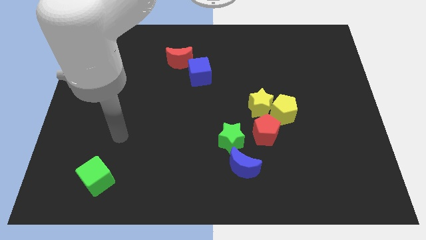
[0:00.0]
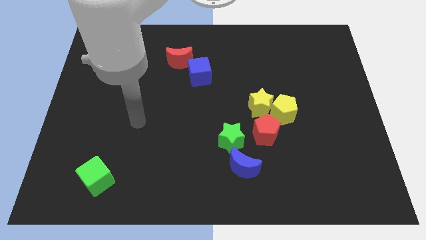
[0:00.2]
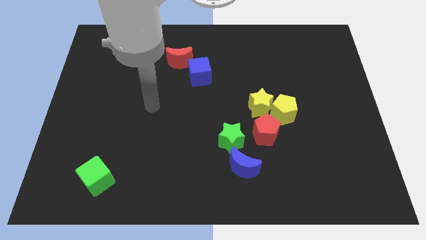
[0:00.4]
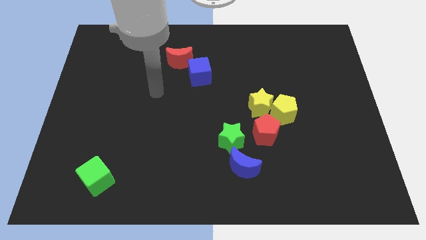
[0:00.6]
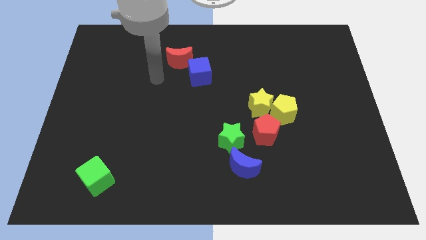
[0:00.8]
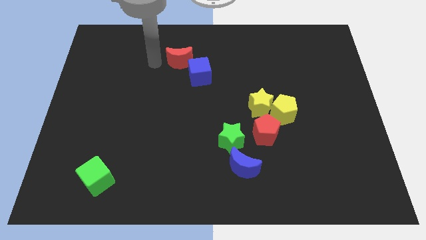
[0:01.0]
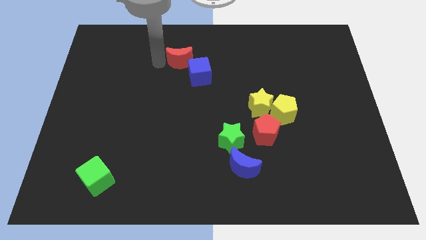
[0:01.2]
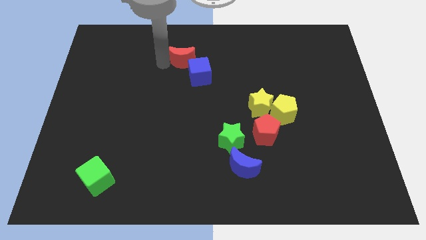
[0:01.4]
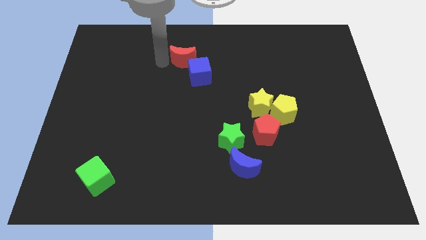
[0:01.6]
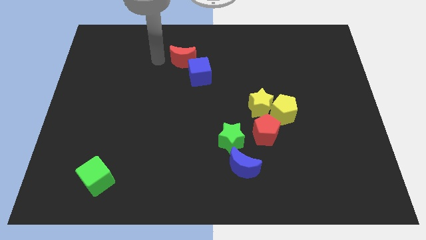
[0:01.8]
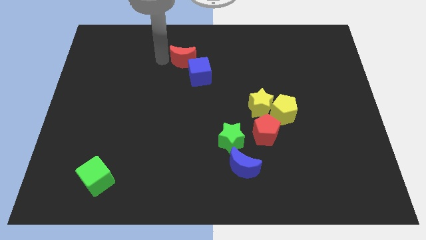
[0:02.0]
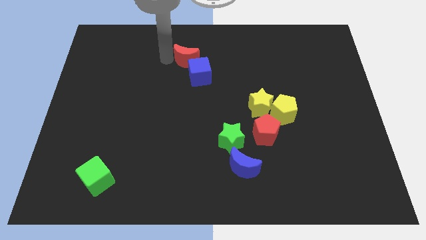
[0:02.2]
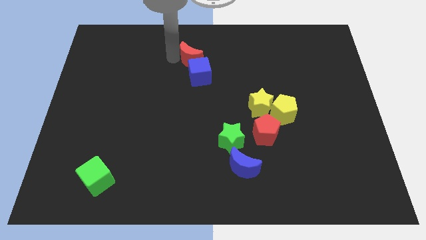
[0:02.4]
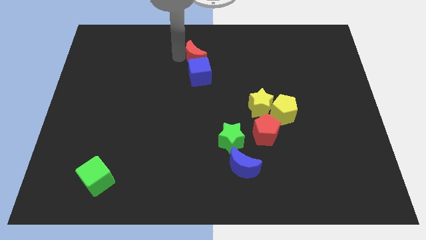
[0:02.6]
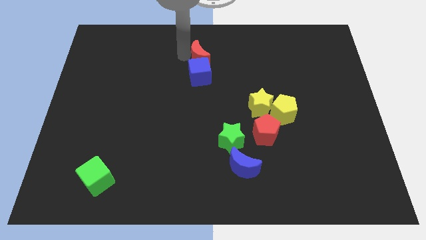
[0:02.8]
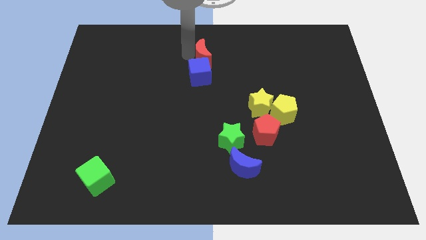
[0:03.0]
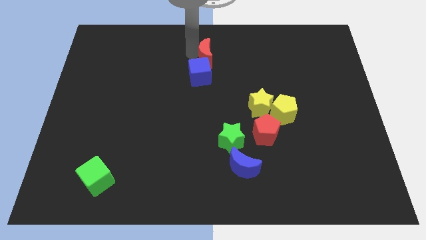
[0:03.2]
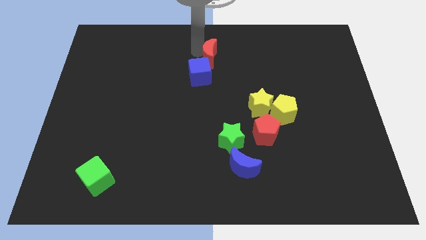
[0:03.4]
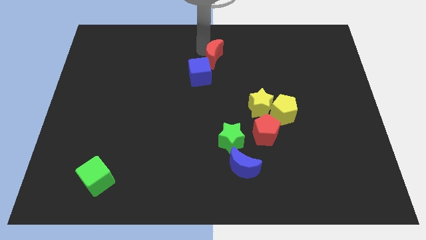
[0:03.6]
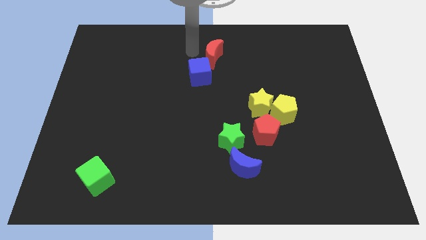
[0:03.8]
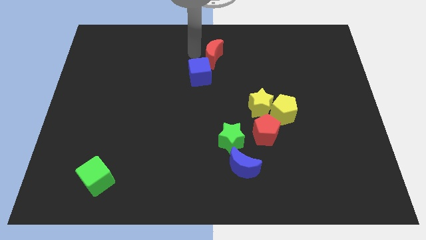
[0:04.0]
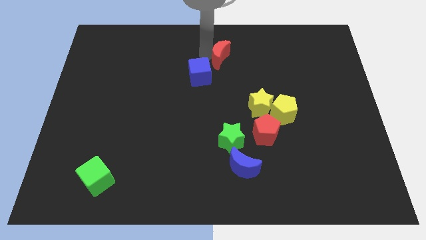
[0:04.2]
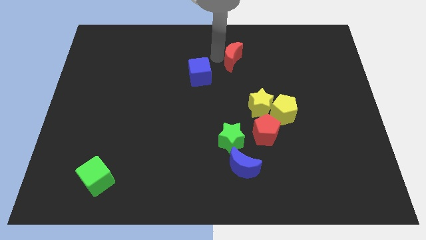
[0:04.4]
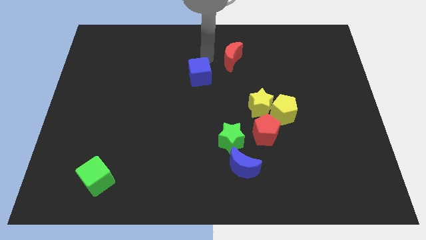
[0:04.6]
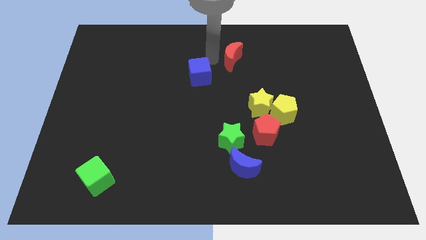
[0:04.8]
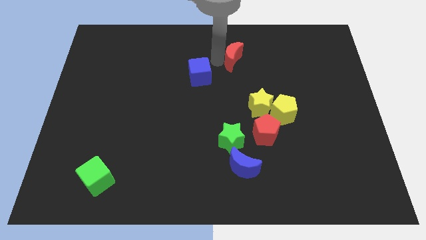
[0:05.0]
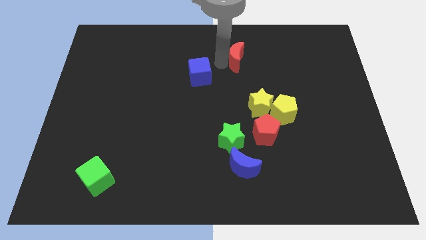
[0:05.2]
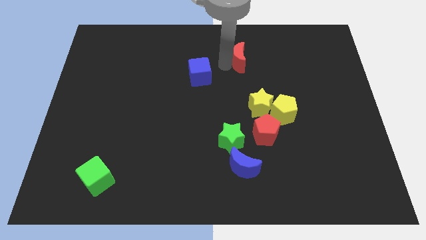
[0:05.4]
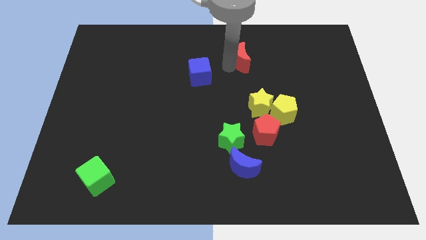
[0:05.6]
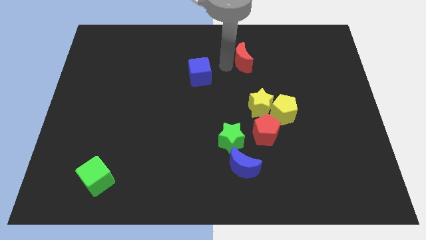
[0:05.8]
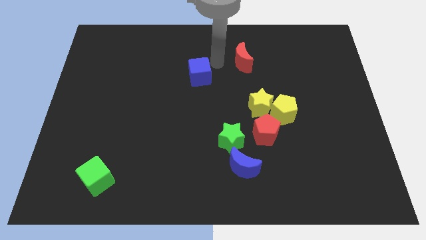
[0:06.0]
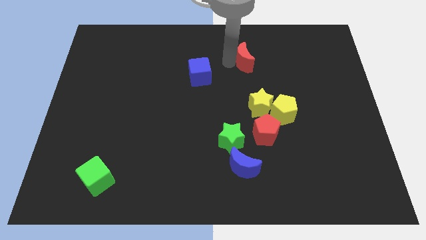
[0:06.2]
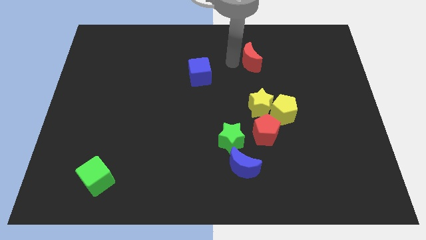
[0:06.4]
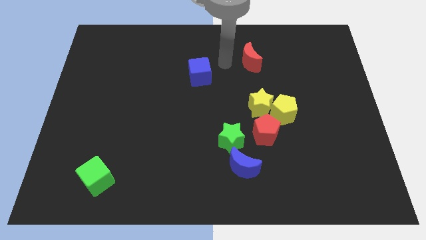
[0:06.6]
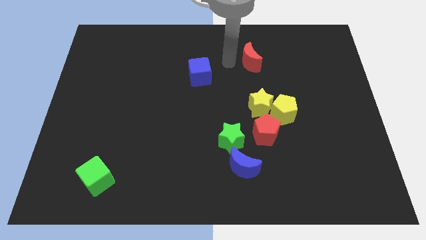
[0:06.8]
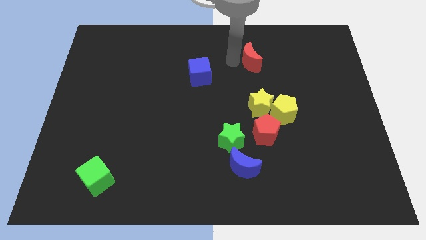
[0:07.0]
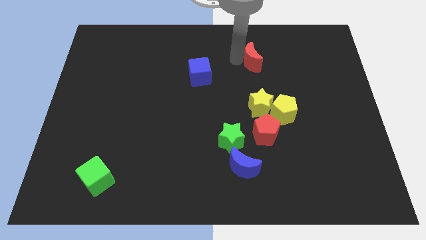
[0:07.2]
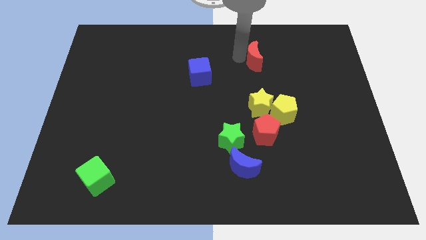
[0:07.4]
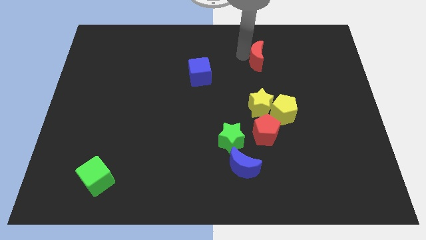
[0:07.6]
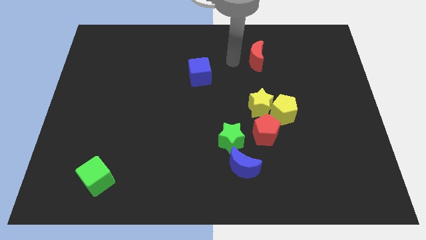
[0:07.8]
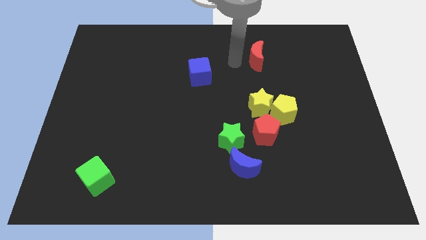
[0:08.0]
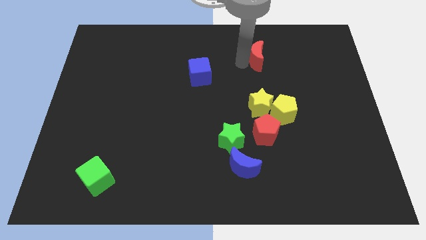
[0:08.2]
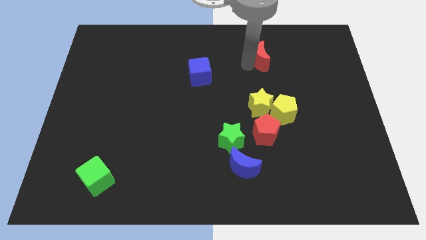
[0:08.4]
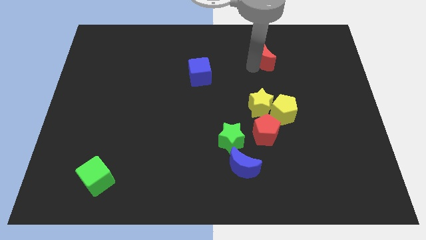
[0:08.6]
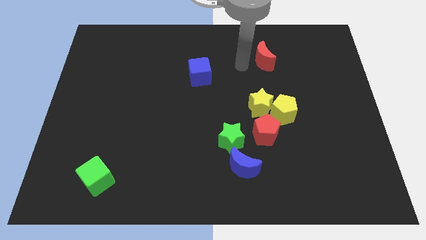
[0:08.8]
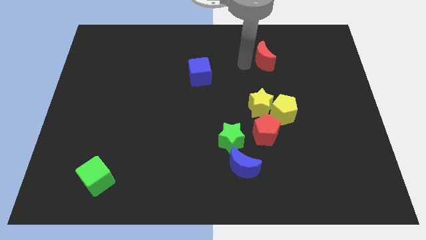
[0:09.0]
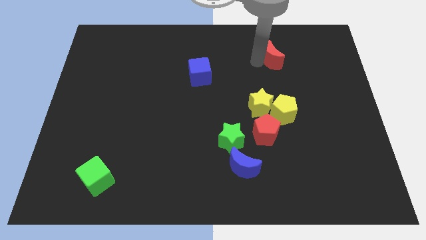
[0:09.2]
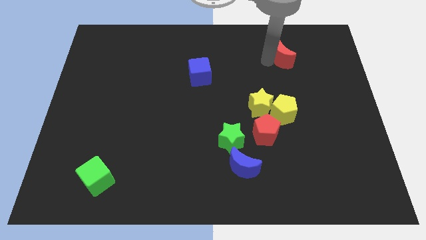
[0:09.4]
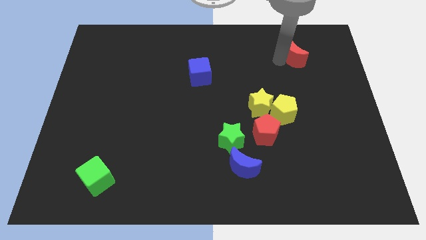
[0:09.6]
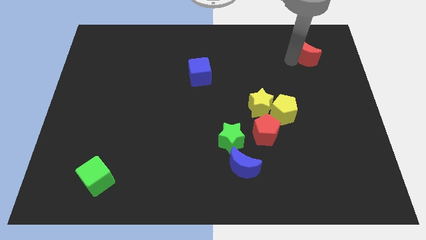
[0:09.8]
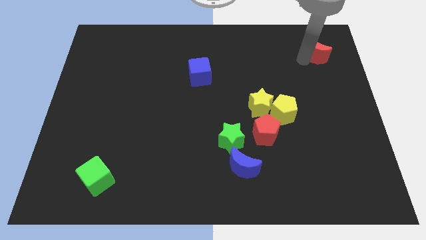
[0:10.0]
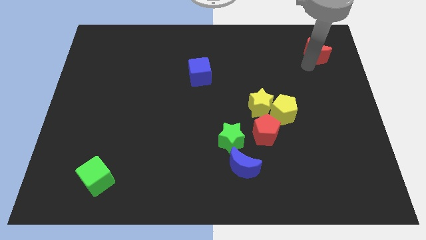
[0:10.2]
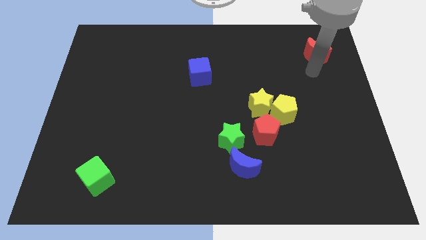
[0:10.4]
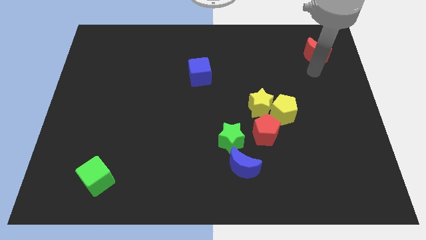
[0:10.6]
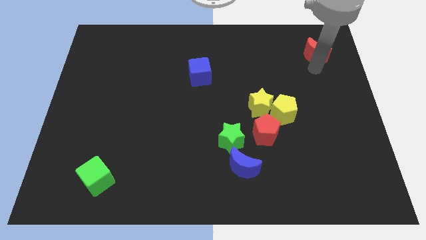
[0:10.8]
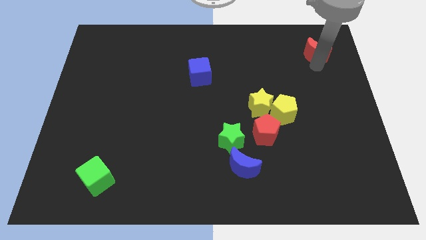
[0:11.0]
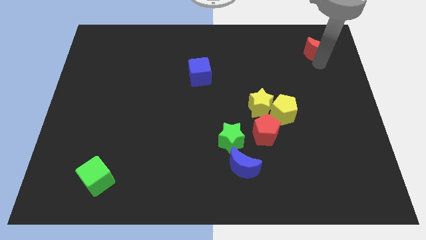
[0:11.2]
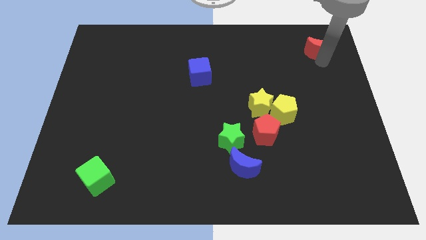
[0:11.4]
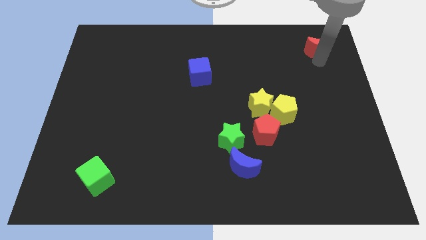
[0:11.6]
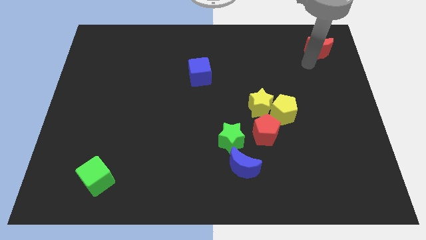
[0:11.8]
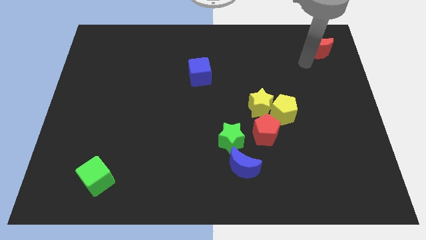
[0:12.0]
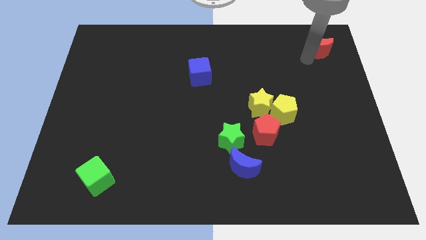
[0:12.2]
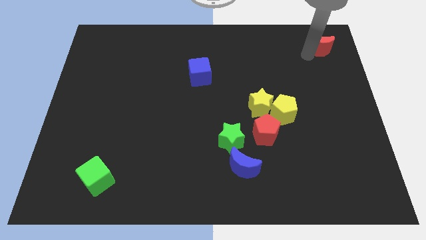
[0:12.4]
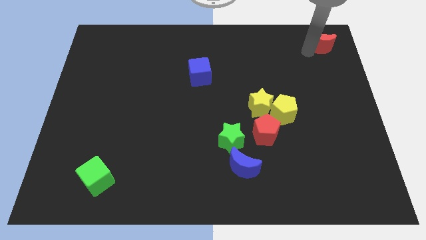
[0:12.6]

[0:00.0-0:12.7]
move the red moon to the top right

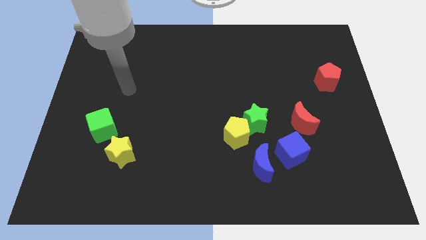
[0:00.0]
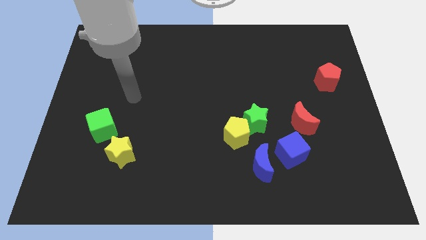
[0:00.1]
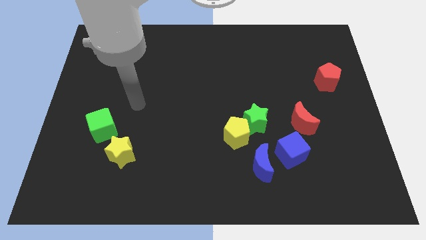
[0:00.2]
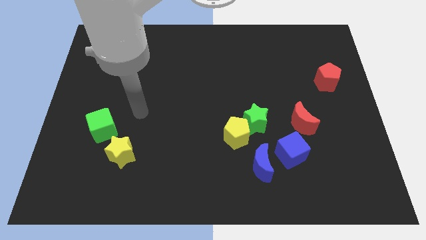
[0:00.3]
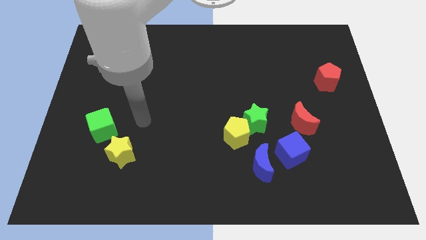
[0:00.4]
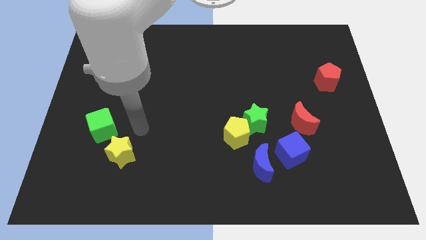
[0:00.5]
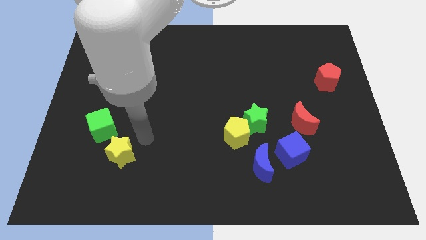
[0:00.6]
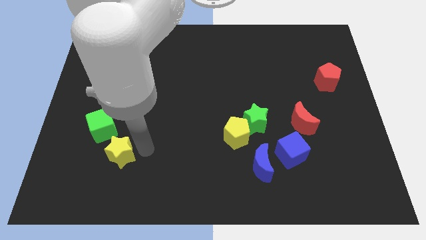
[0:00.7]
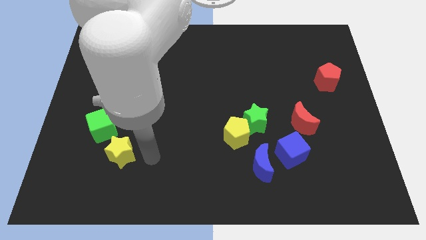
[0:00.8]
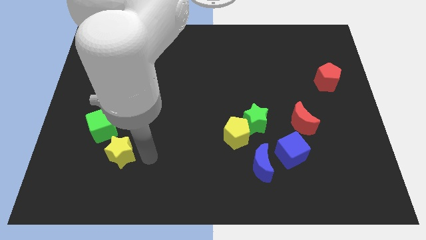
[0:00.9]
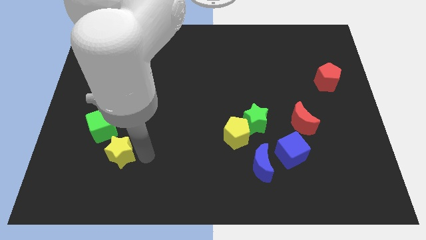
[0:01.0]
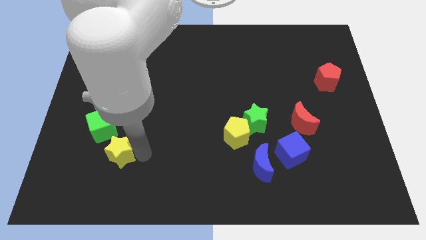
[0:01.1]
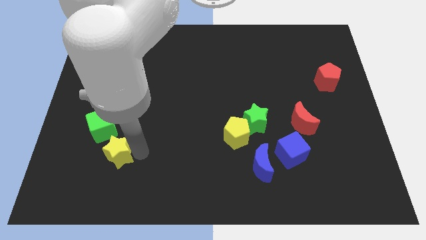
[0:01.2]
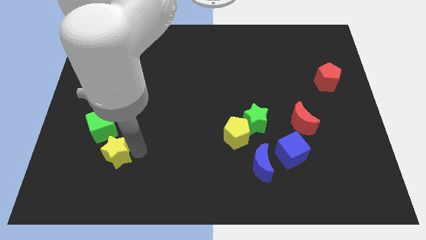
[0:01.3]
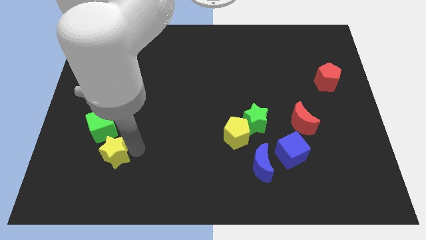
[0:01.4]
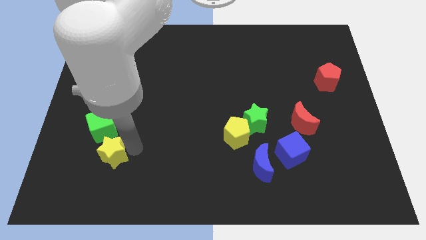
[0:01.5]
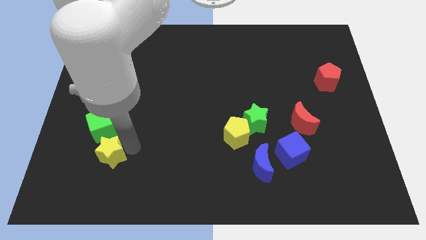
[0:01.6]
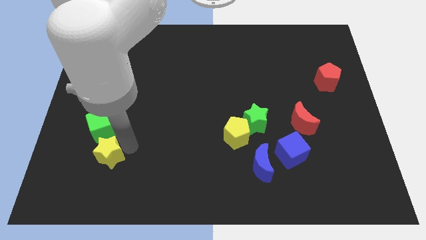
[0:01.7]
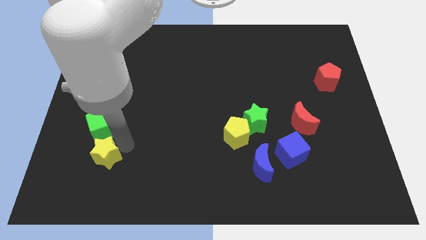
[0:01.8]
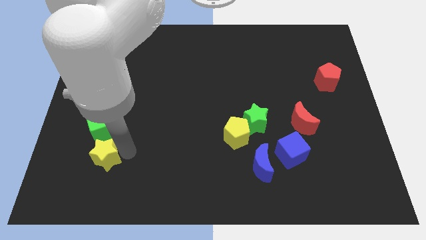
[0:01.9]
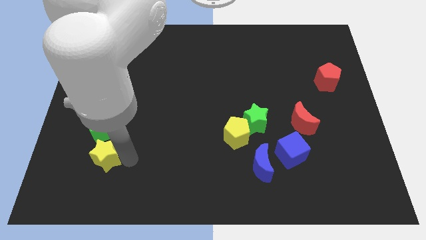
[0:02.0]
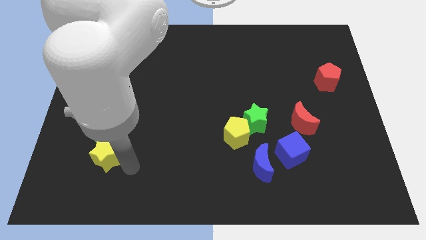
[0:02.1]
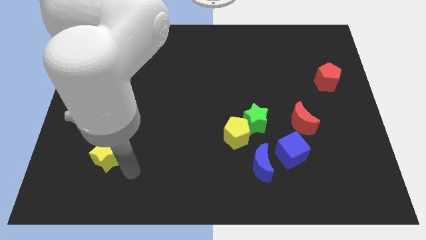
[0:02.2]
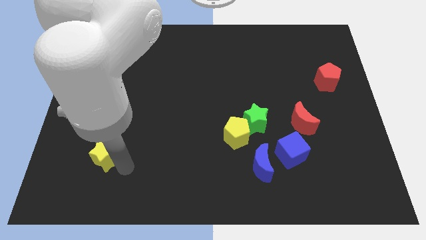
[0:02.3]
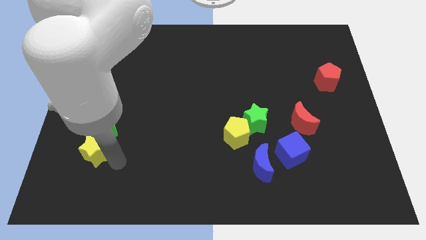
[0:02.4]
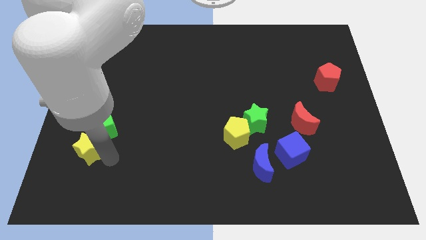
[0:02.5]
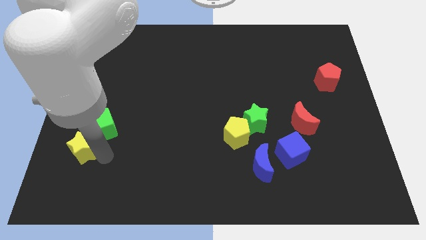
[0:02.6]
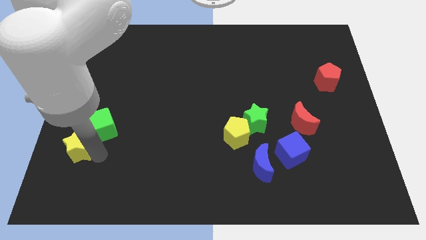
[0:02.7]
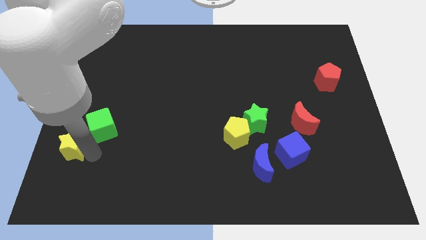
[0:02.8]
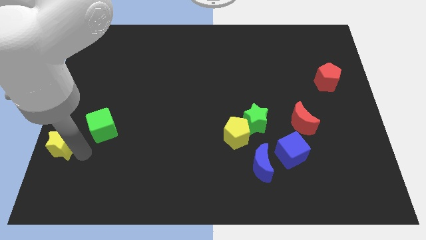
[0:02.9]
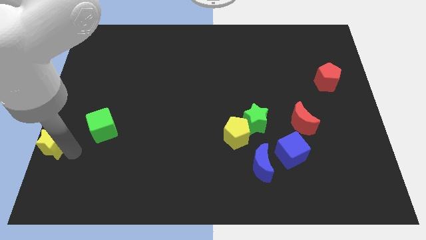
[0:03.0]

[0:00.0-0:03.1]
push the yellow star to the left side
